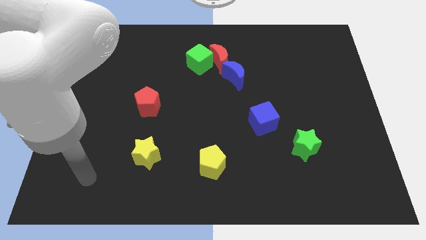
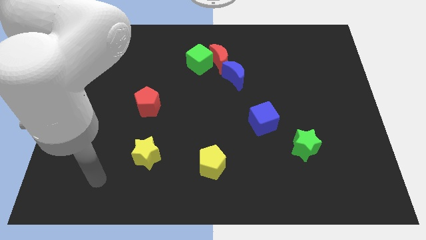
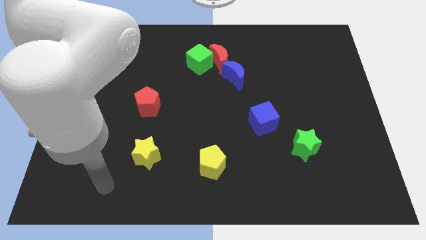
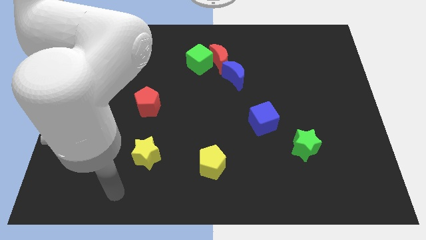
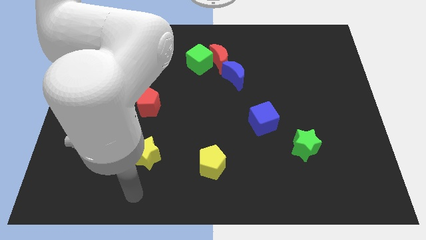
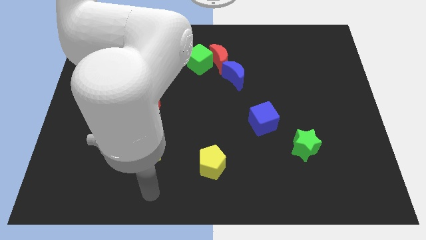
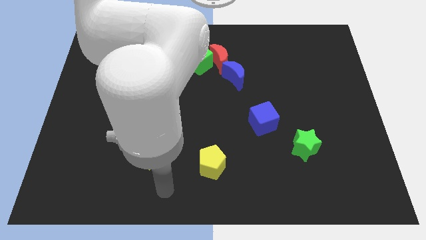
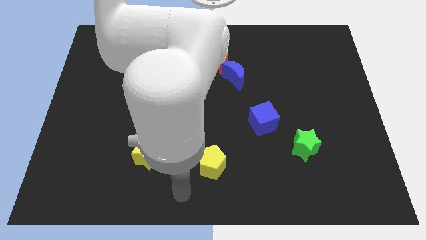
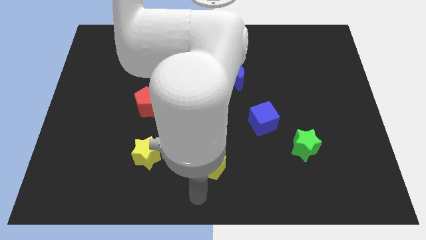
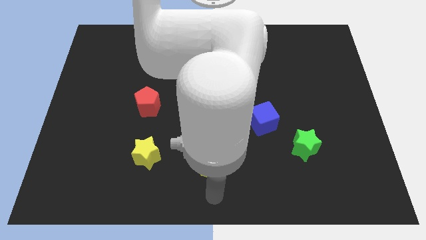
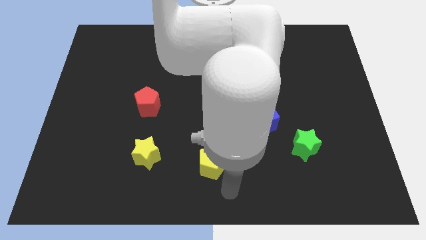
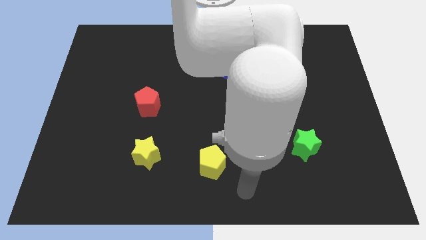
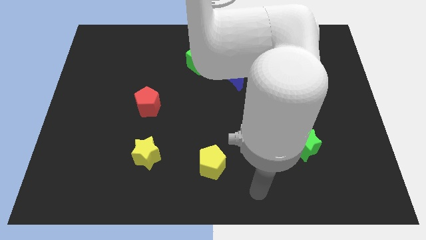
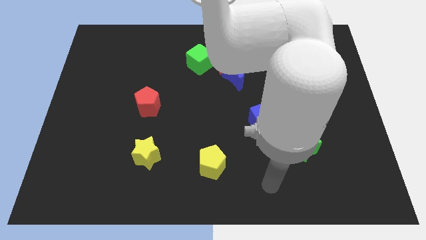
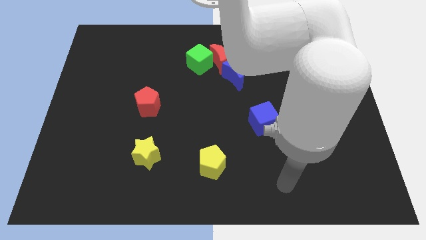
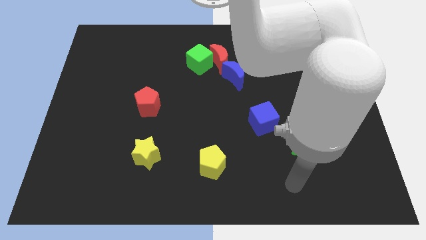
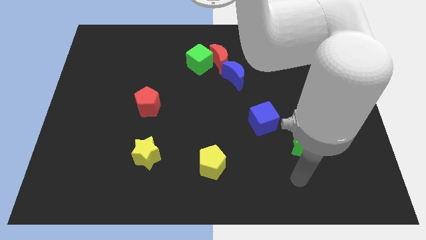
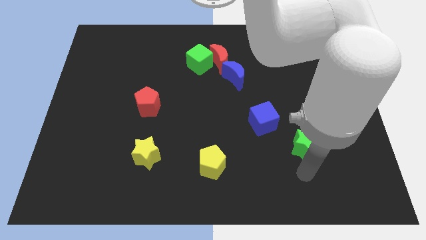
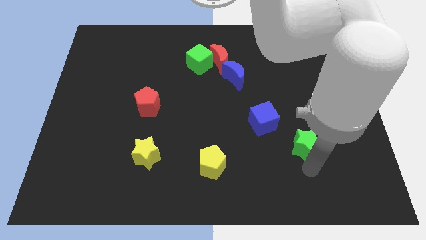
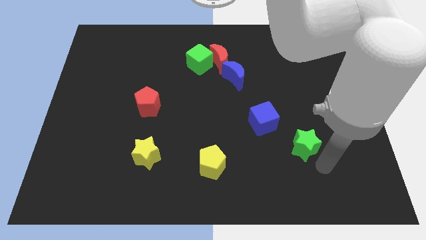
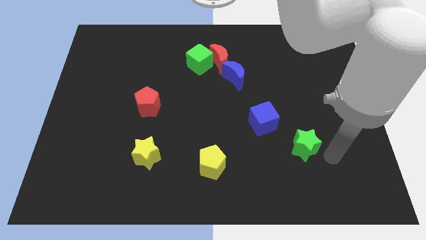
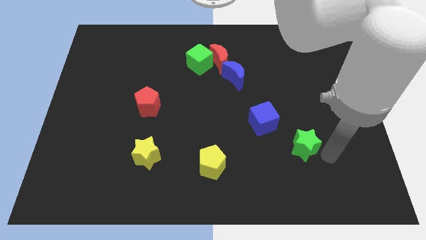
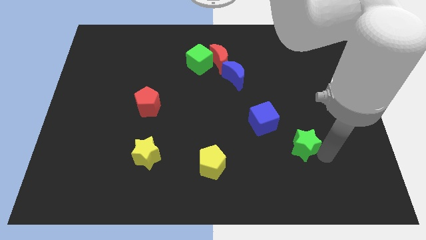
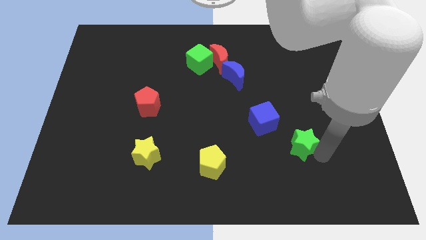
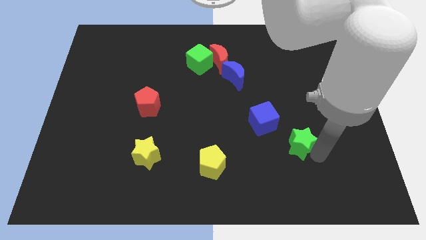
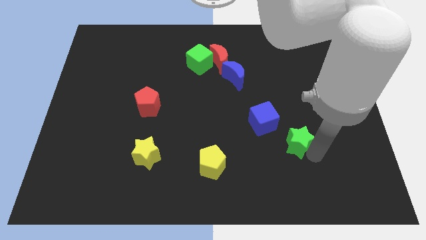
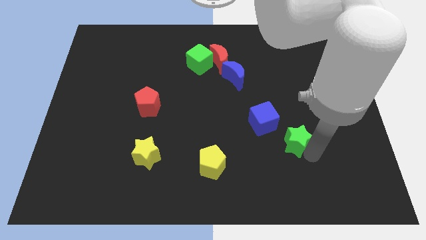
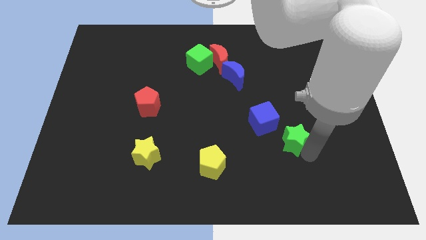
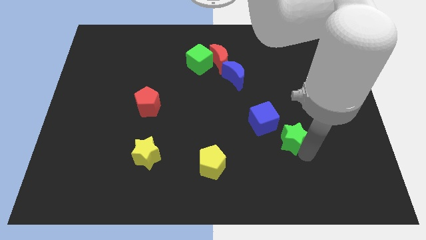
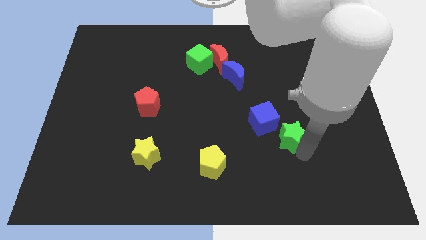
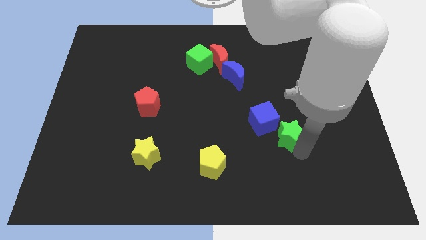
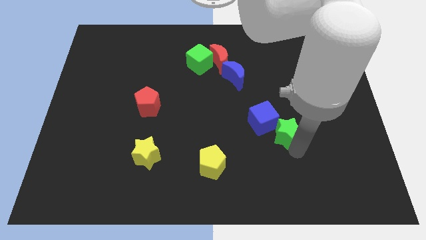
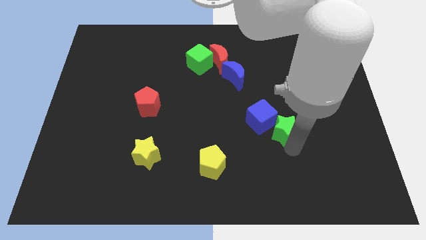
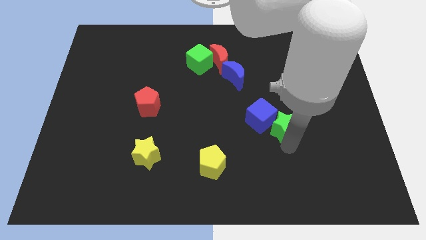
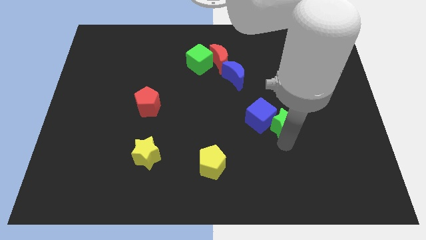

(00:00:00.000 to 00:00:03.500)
push the green star up and then to the left a little bit

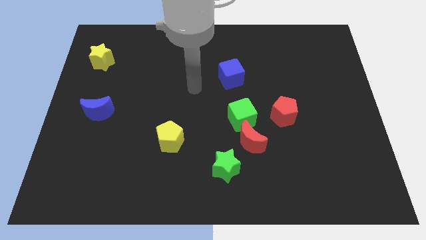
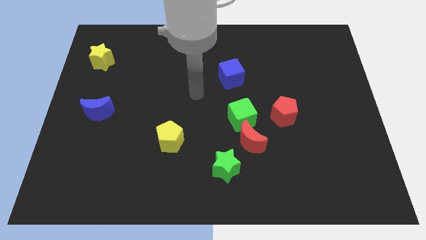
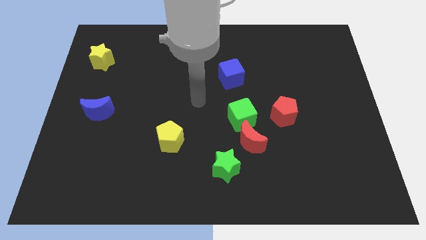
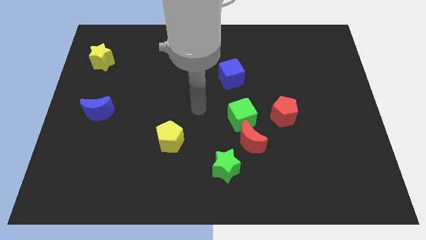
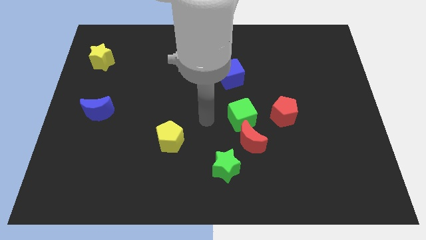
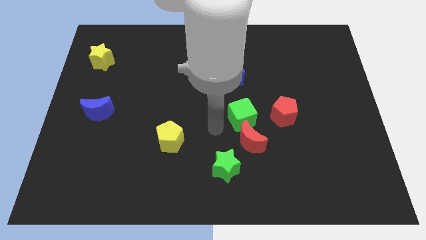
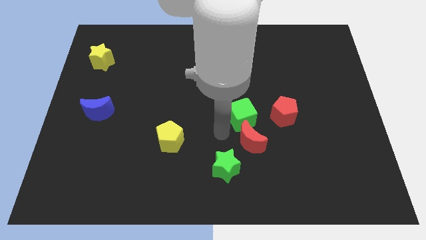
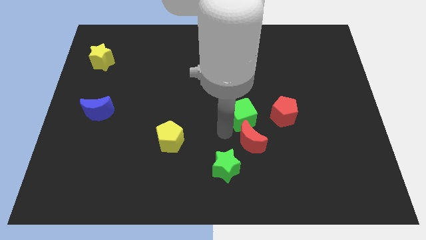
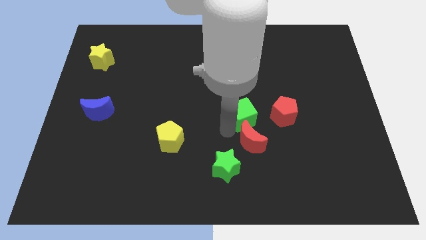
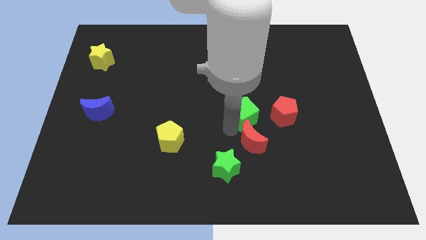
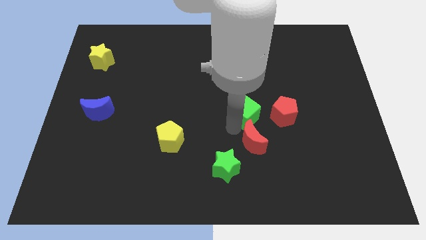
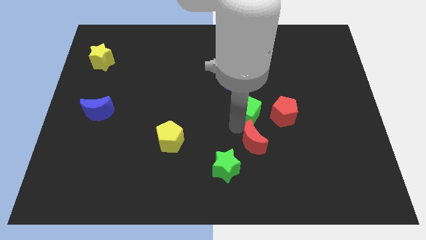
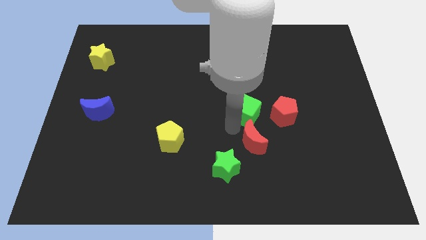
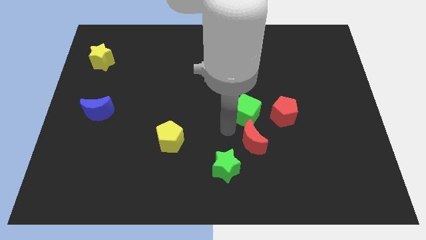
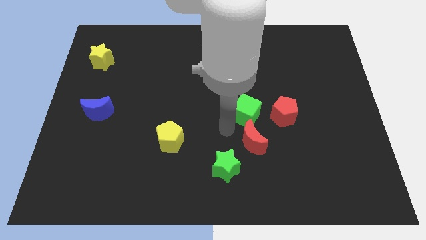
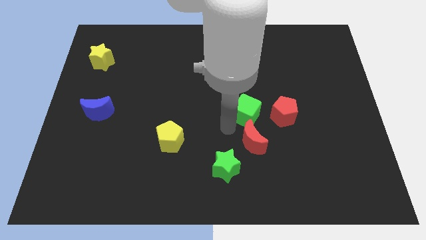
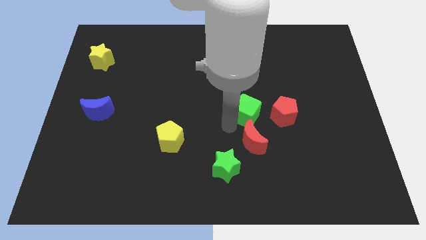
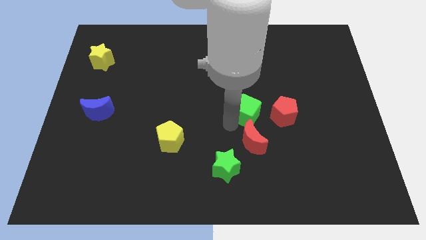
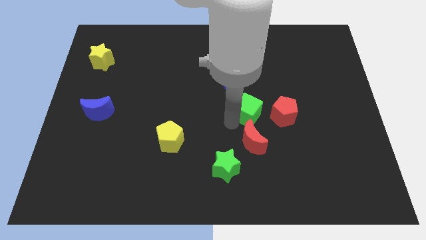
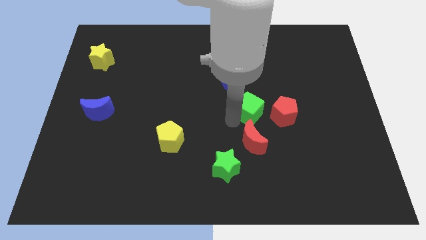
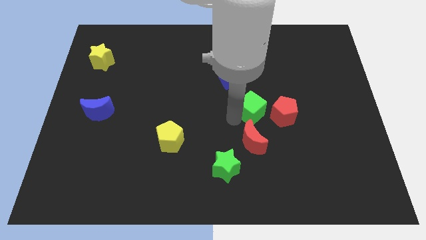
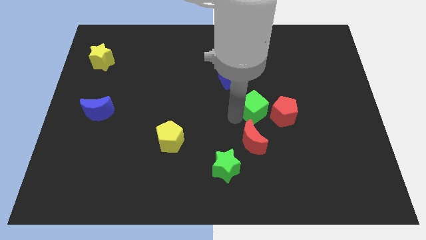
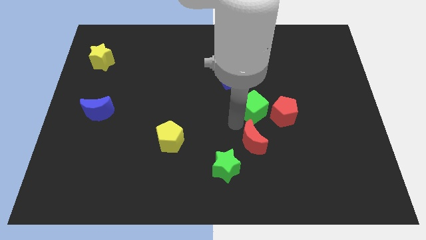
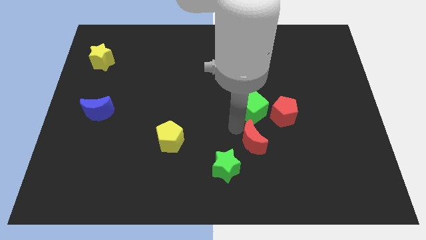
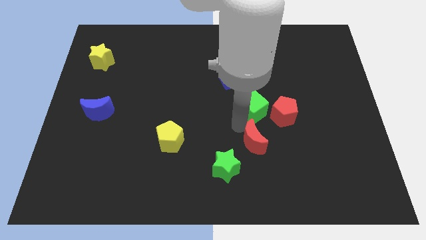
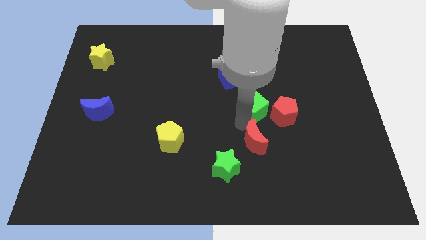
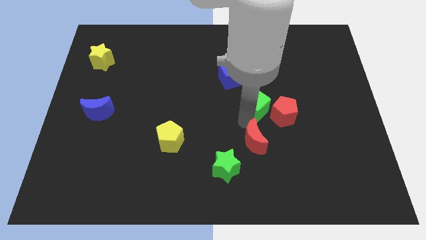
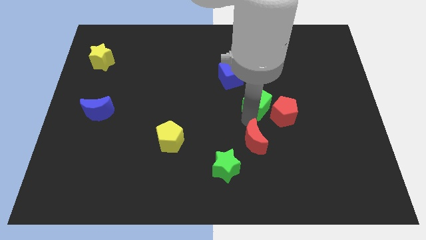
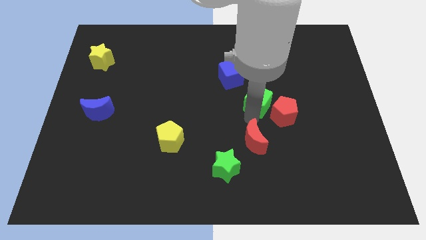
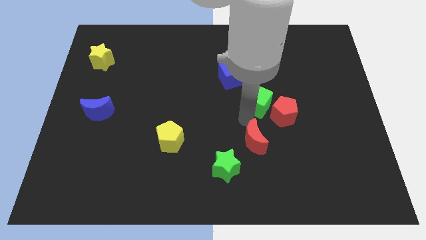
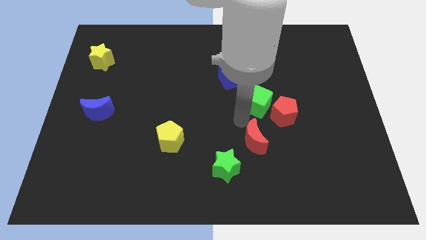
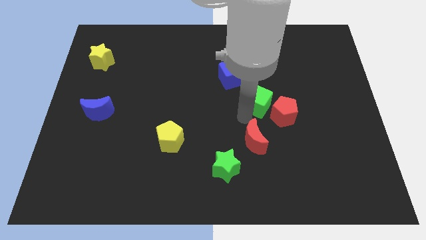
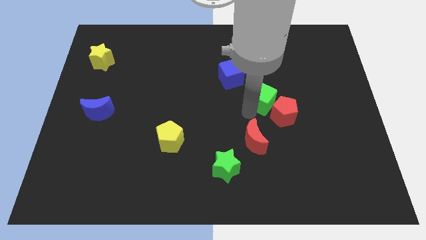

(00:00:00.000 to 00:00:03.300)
slightly move the green cube upwards and to the right

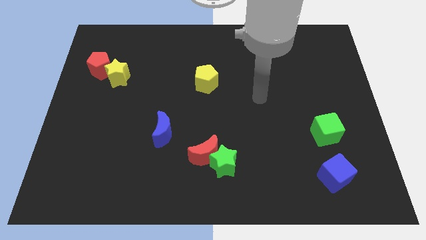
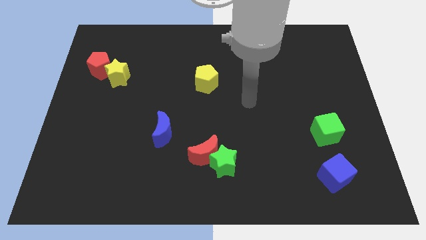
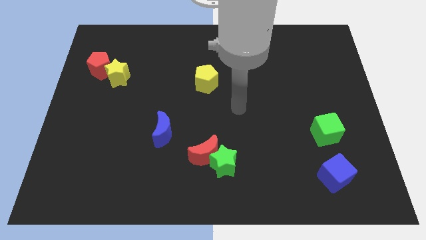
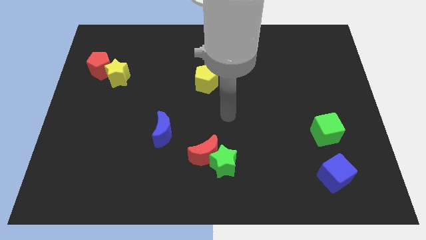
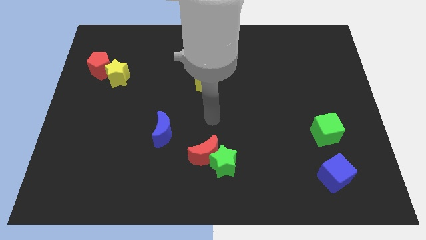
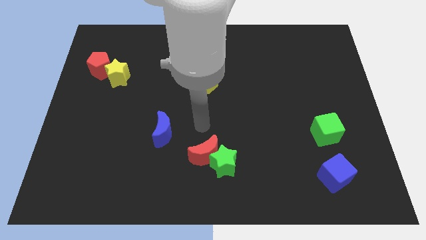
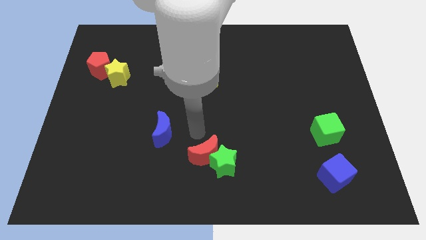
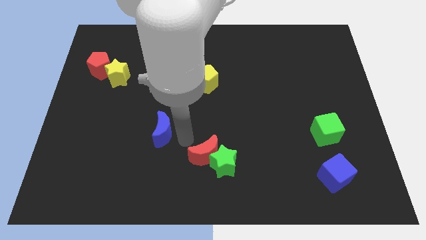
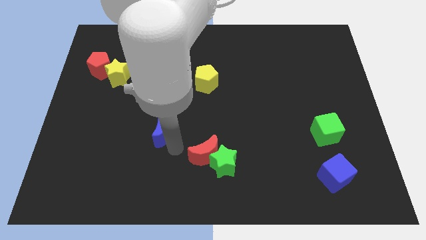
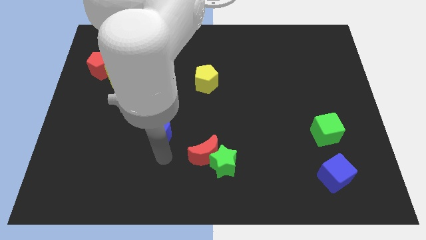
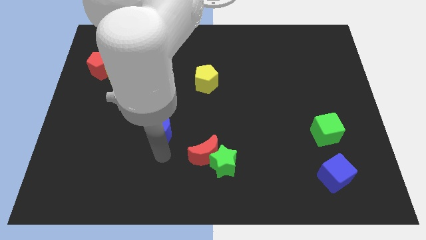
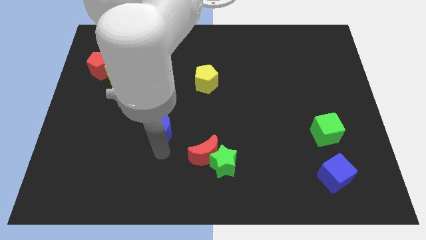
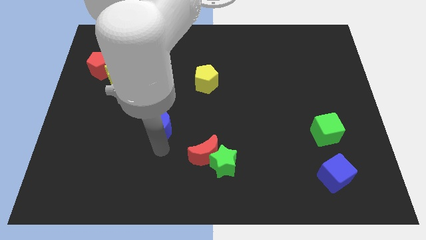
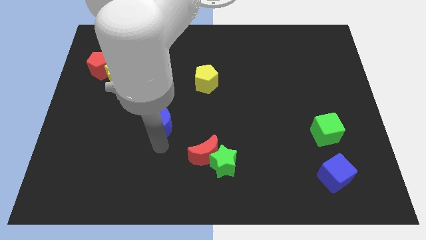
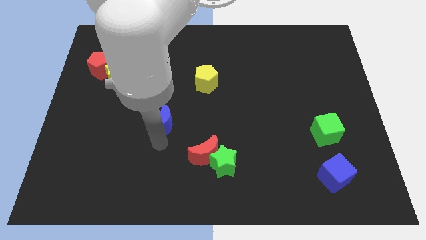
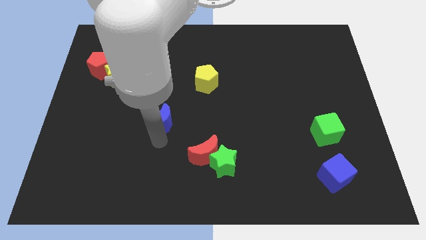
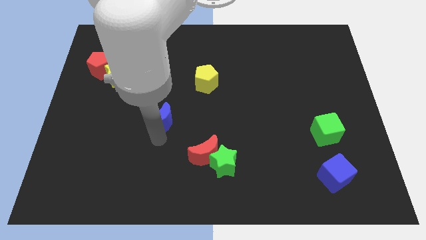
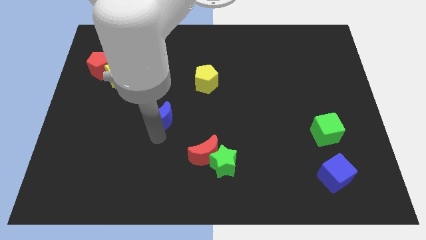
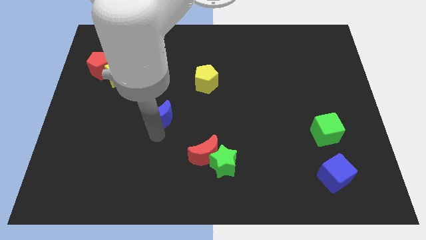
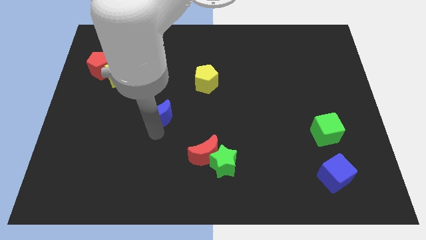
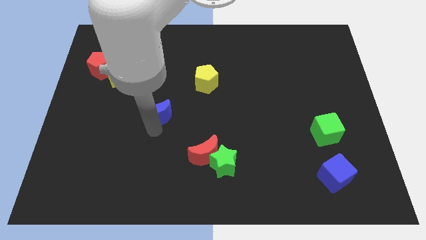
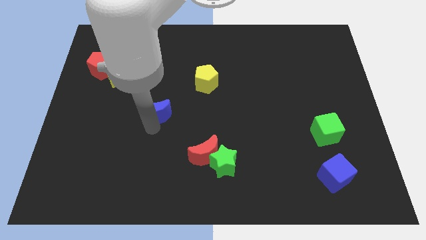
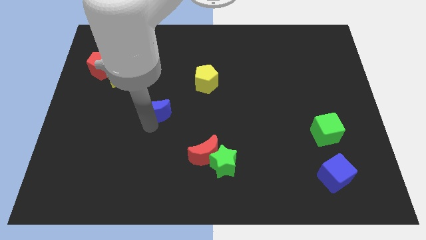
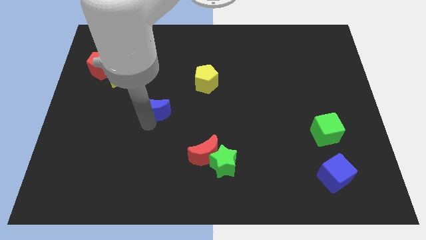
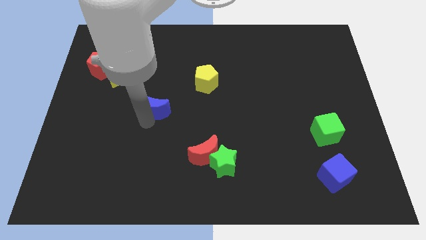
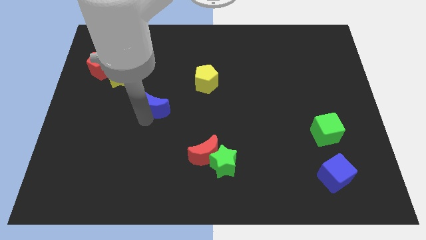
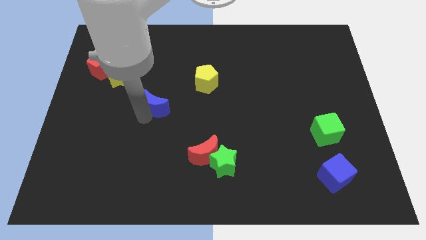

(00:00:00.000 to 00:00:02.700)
move the blue moon up somewhat
